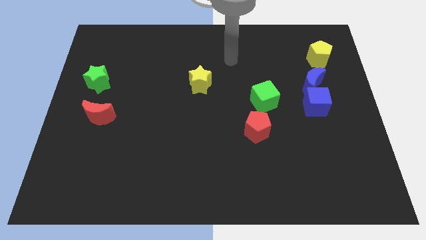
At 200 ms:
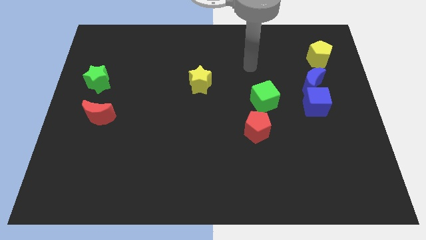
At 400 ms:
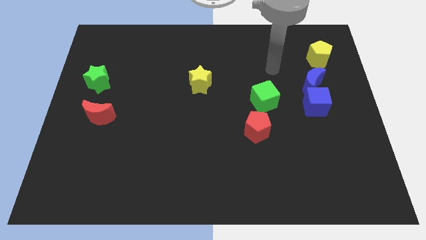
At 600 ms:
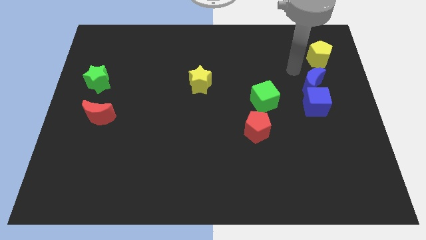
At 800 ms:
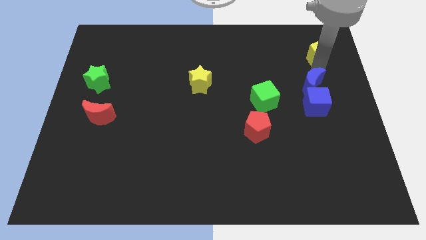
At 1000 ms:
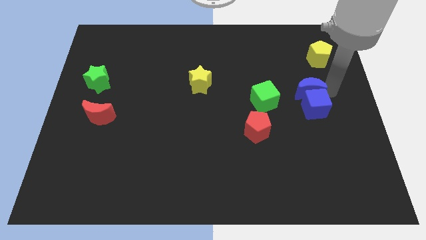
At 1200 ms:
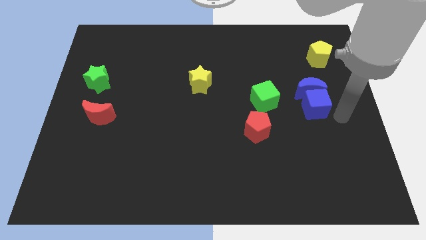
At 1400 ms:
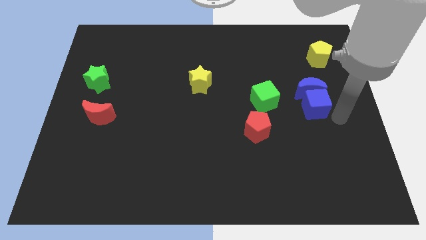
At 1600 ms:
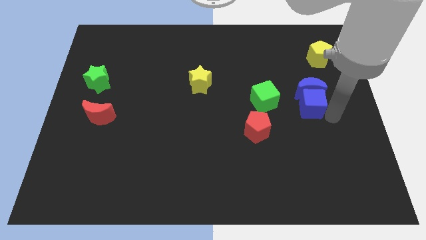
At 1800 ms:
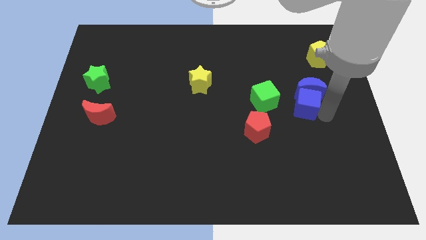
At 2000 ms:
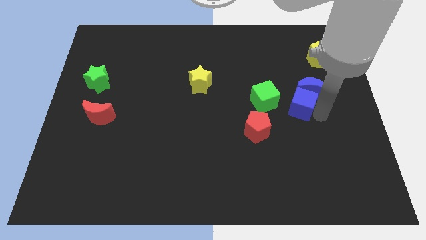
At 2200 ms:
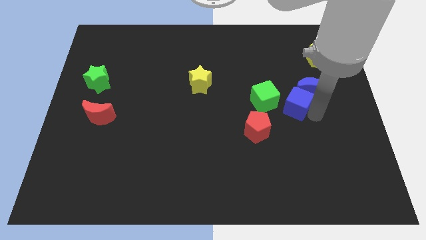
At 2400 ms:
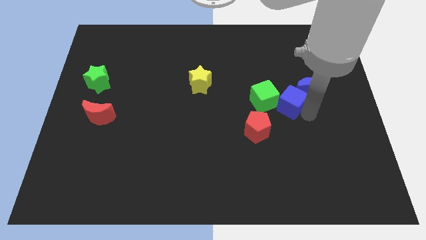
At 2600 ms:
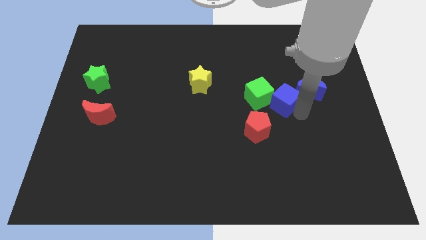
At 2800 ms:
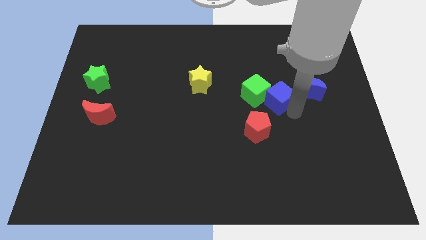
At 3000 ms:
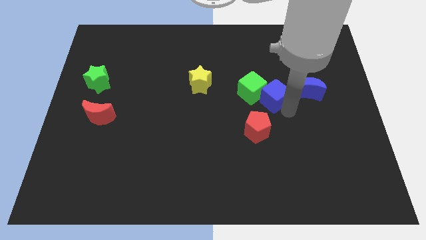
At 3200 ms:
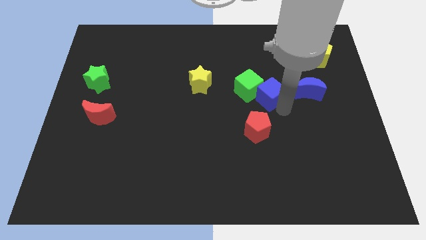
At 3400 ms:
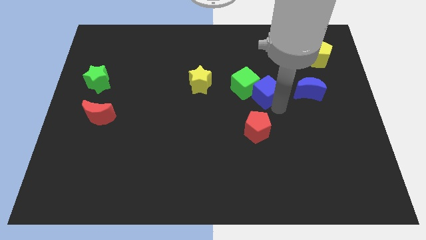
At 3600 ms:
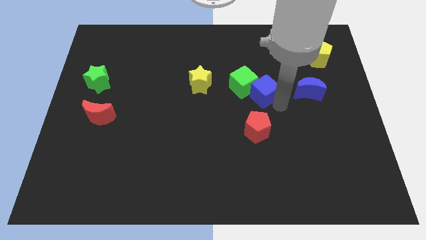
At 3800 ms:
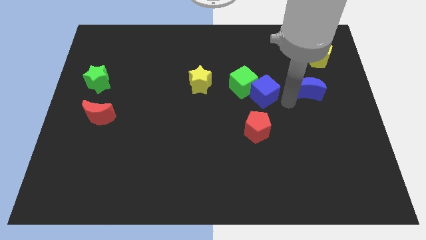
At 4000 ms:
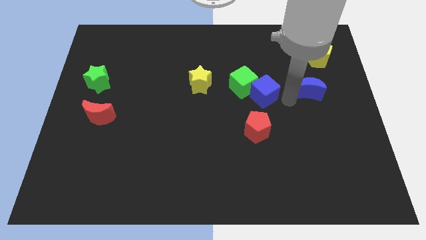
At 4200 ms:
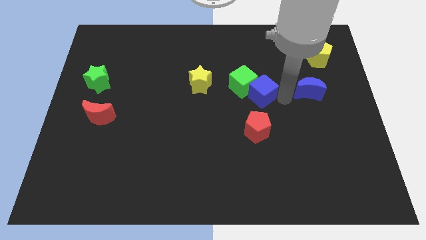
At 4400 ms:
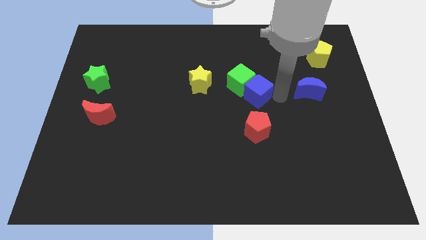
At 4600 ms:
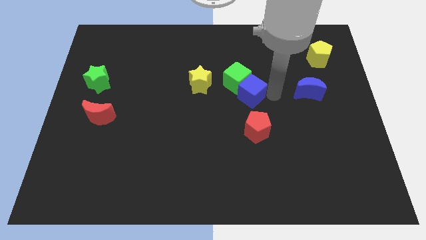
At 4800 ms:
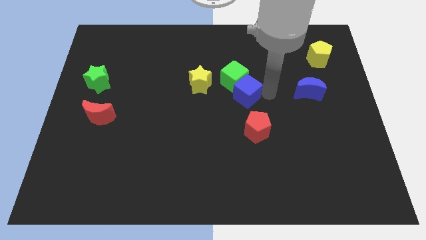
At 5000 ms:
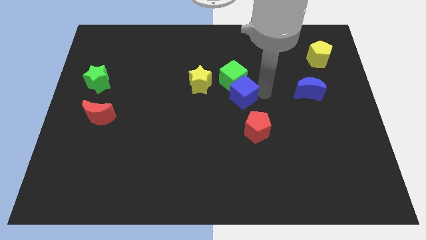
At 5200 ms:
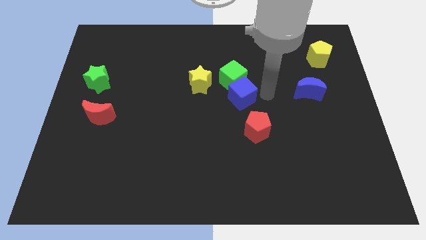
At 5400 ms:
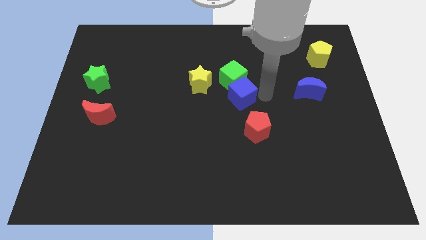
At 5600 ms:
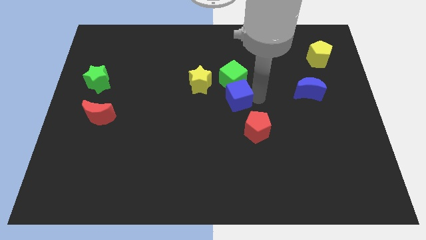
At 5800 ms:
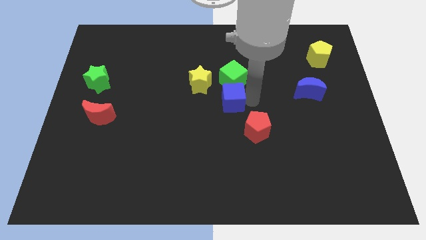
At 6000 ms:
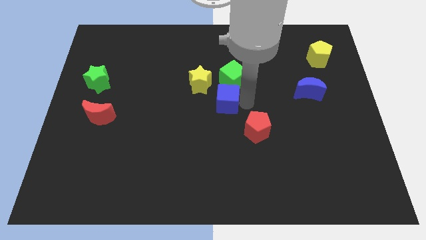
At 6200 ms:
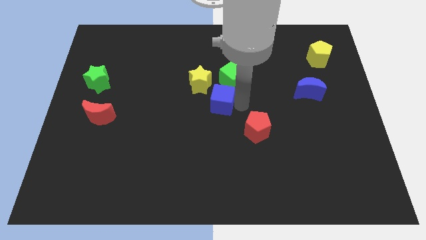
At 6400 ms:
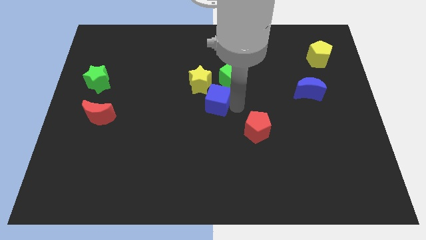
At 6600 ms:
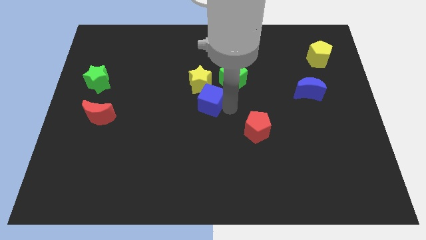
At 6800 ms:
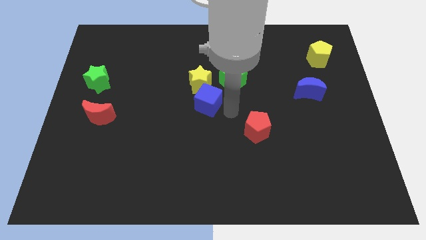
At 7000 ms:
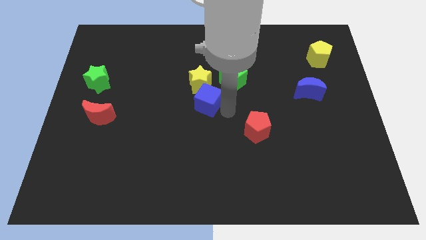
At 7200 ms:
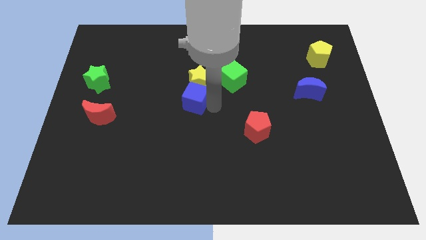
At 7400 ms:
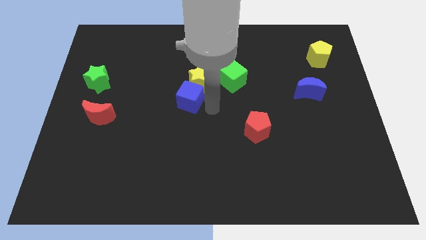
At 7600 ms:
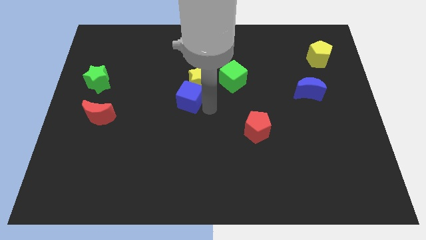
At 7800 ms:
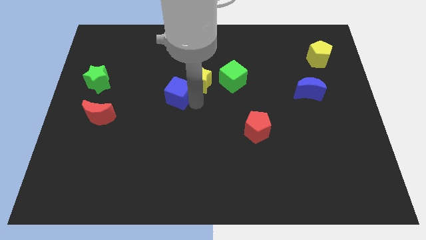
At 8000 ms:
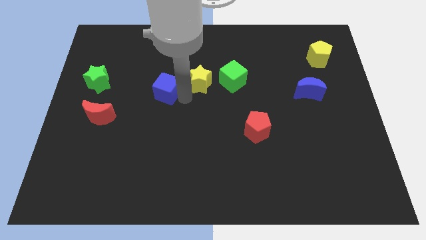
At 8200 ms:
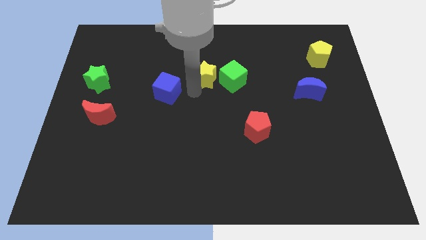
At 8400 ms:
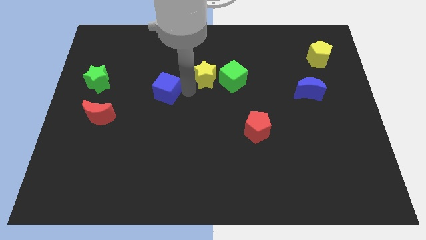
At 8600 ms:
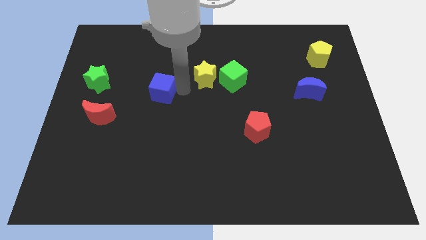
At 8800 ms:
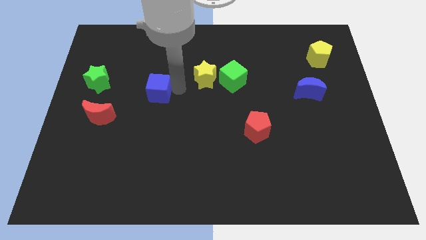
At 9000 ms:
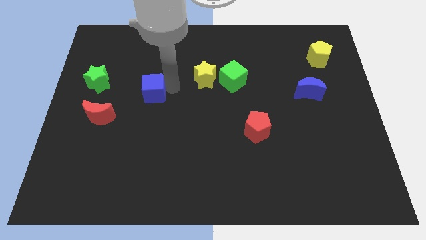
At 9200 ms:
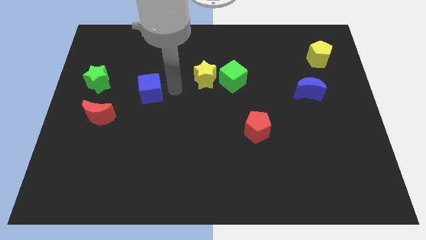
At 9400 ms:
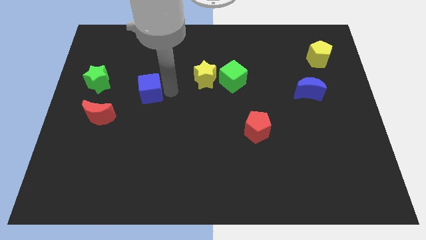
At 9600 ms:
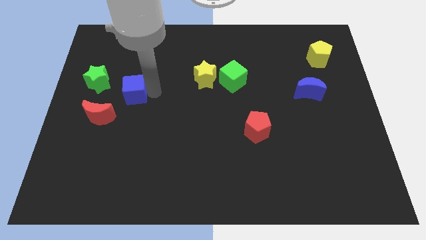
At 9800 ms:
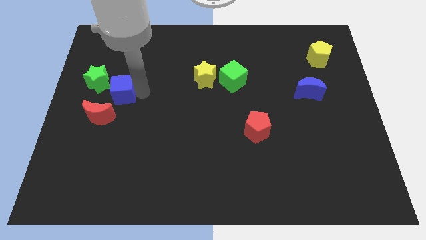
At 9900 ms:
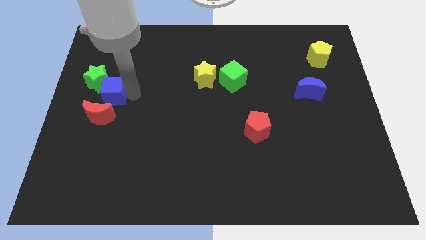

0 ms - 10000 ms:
slide the blue cube next to the green star

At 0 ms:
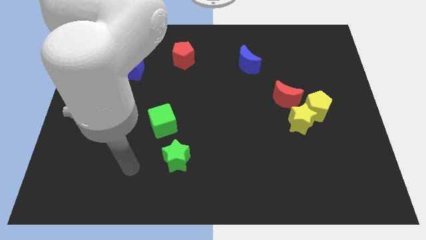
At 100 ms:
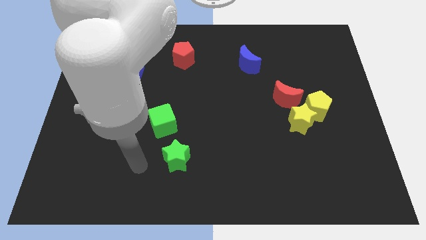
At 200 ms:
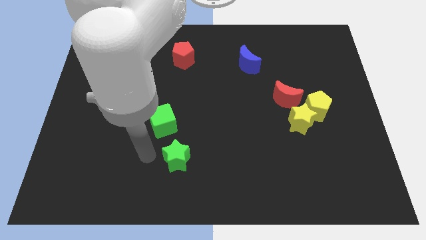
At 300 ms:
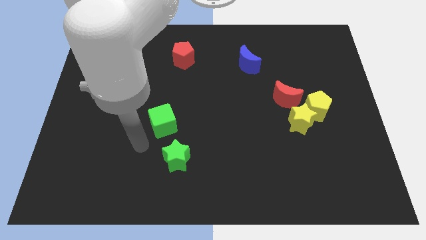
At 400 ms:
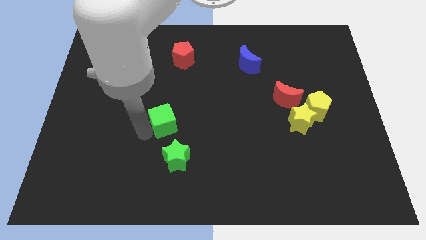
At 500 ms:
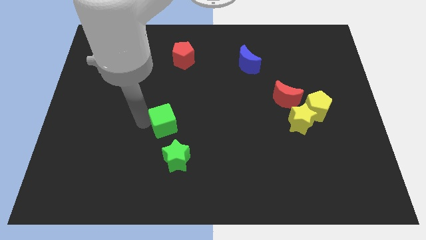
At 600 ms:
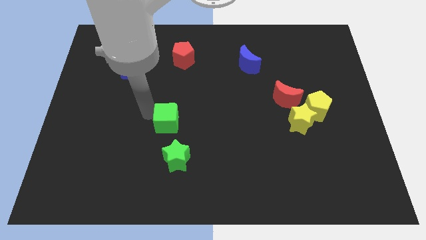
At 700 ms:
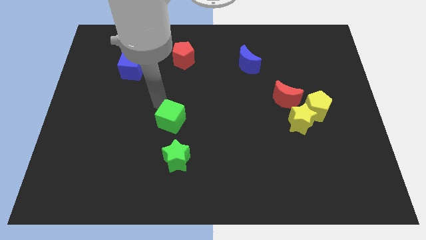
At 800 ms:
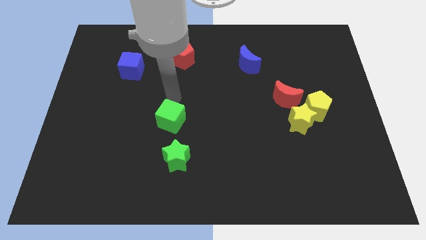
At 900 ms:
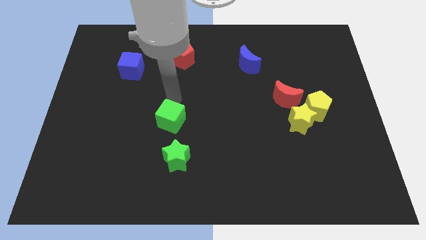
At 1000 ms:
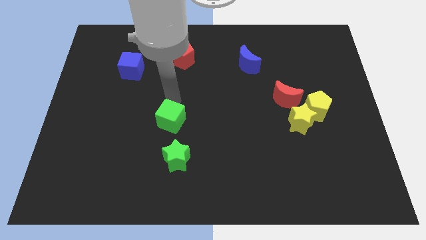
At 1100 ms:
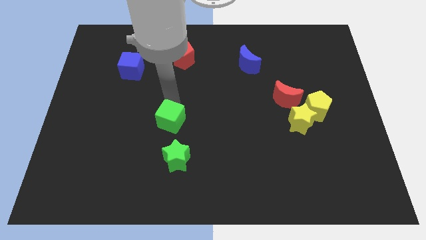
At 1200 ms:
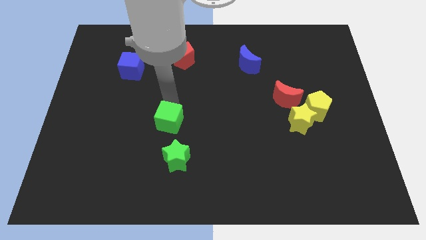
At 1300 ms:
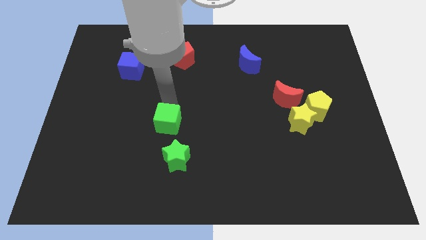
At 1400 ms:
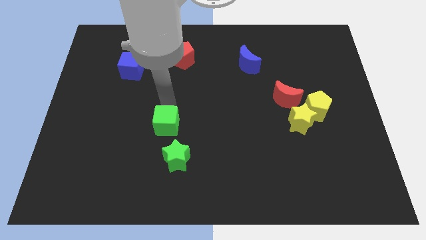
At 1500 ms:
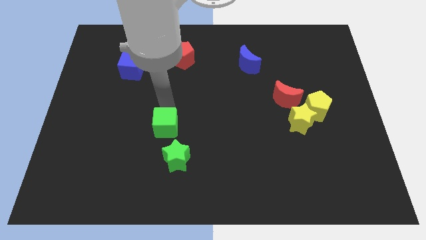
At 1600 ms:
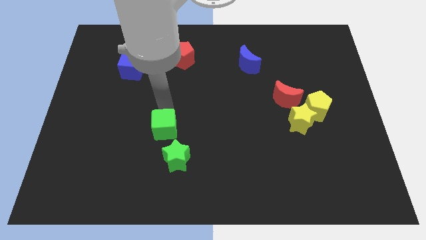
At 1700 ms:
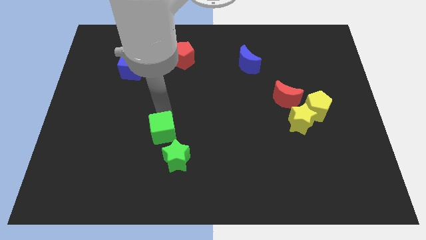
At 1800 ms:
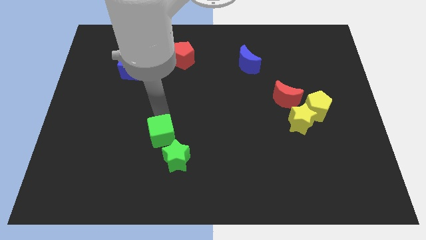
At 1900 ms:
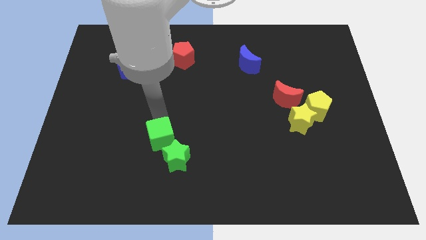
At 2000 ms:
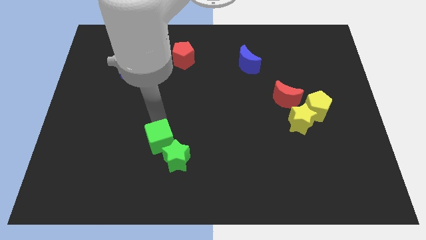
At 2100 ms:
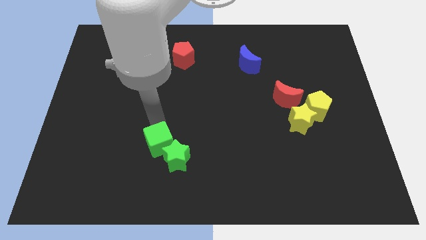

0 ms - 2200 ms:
slide the green cube to the green star
